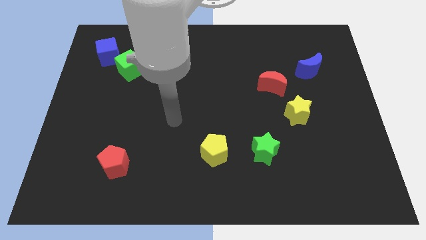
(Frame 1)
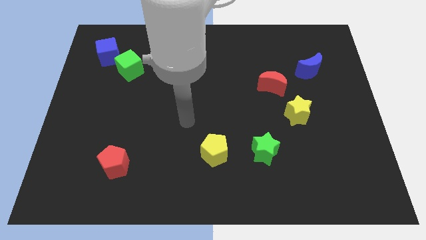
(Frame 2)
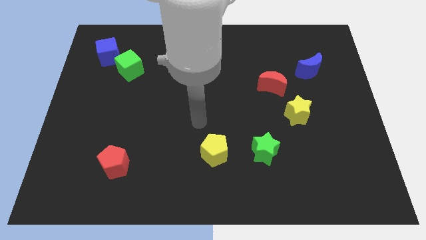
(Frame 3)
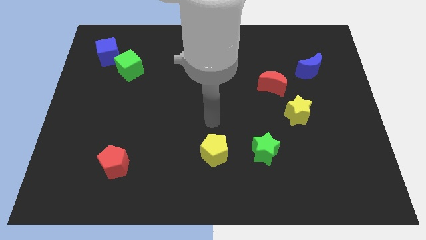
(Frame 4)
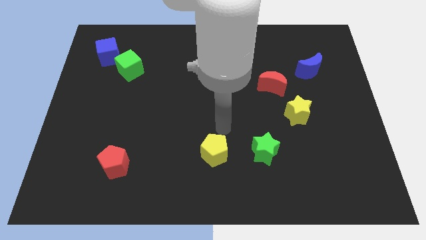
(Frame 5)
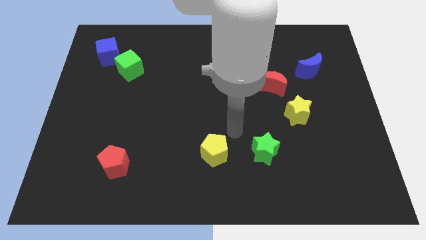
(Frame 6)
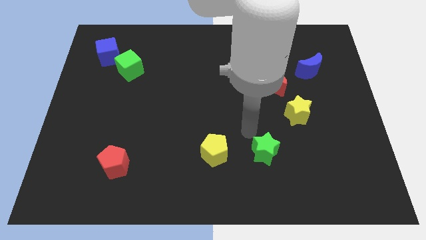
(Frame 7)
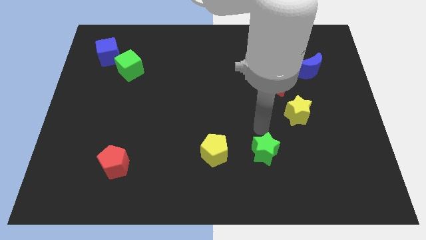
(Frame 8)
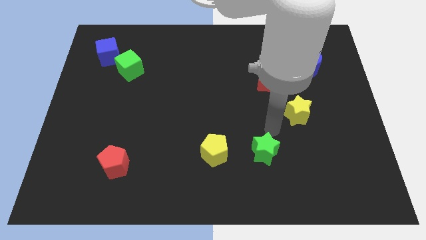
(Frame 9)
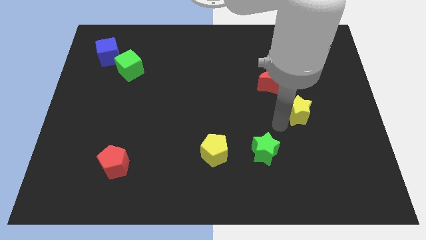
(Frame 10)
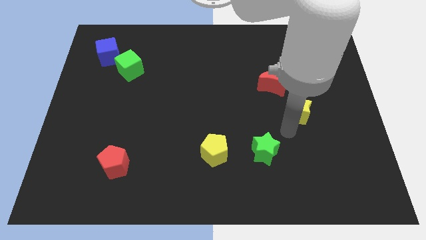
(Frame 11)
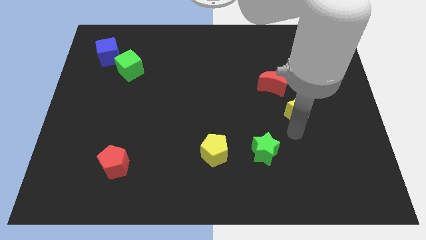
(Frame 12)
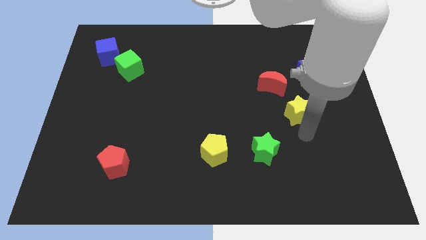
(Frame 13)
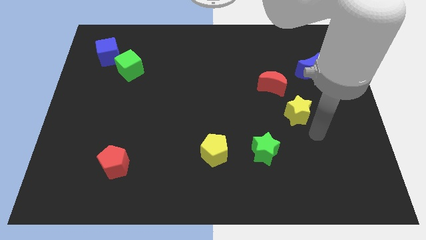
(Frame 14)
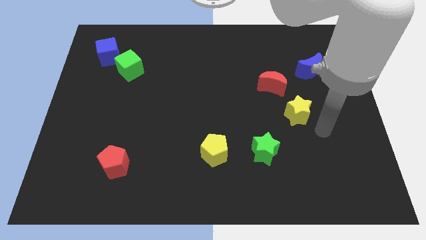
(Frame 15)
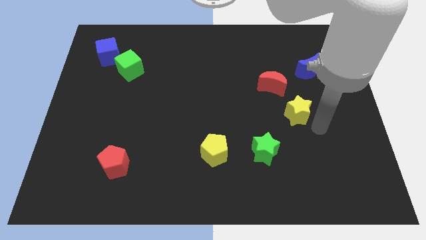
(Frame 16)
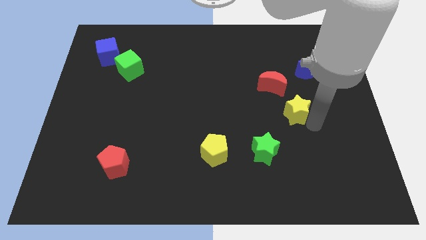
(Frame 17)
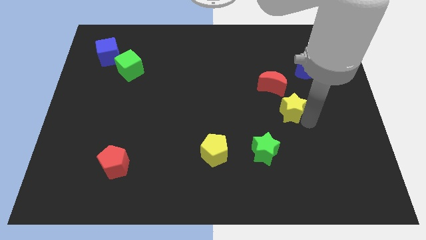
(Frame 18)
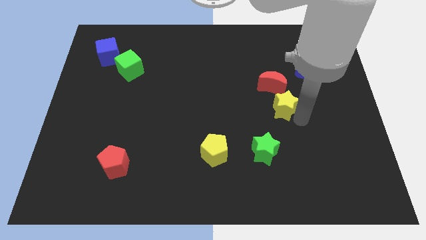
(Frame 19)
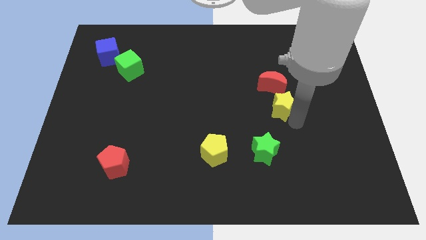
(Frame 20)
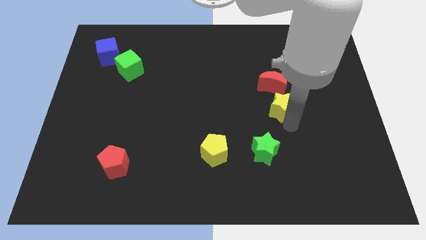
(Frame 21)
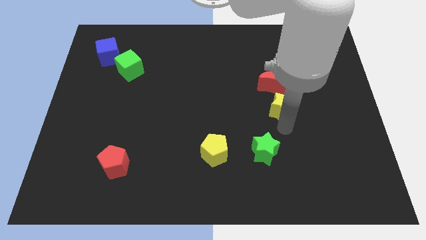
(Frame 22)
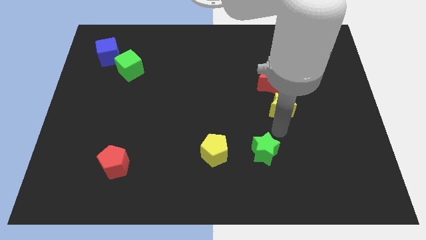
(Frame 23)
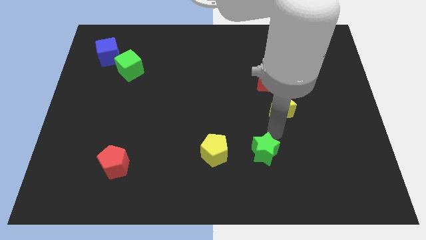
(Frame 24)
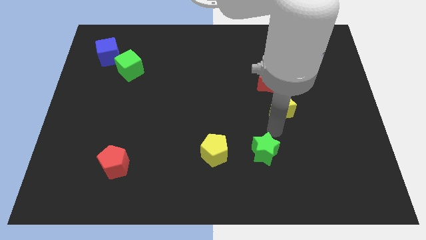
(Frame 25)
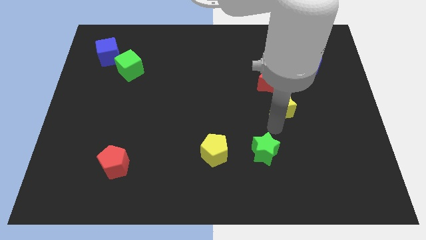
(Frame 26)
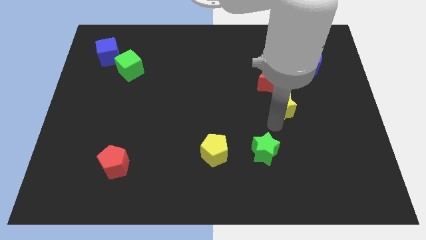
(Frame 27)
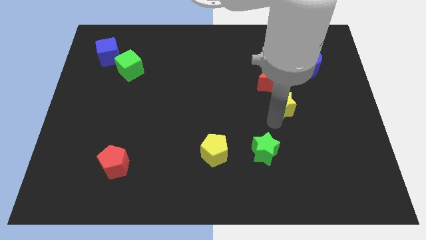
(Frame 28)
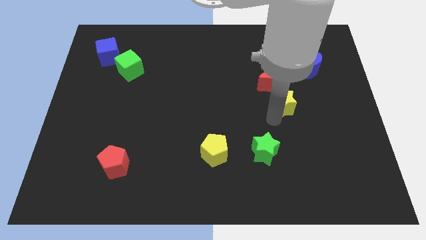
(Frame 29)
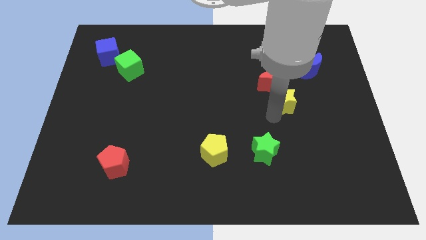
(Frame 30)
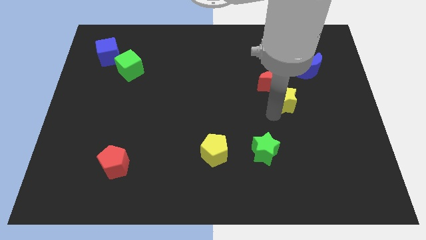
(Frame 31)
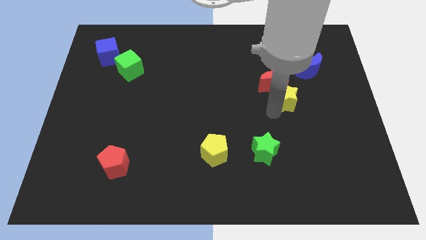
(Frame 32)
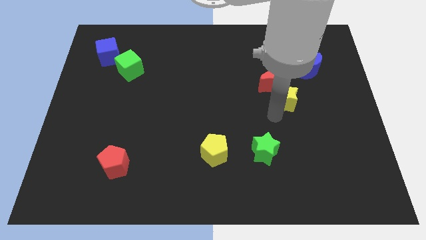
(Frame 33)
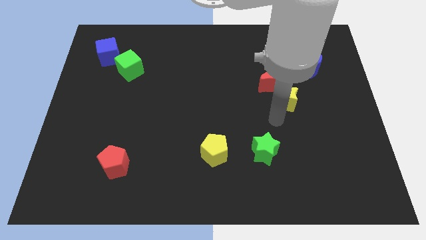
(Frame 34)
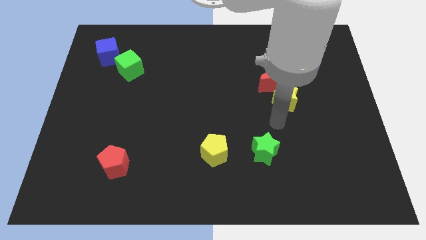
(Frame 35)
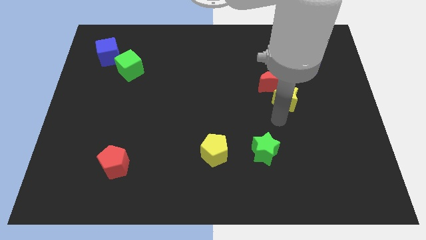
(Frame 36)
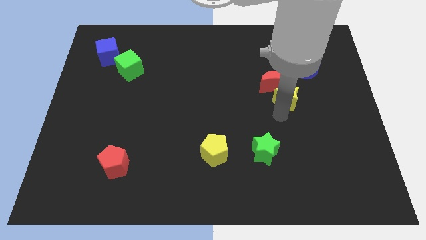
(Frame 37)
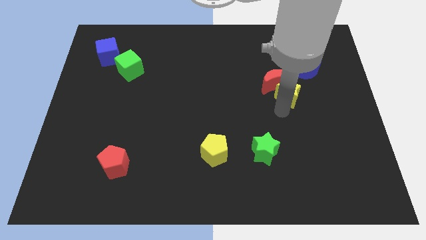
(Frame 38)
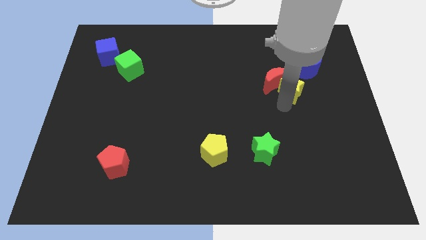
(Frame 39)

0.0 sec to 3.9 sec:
slightly slide the yellow star upwards

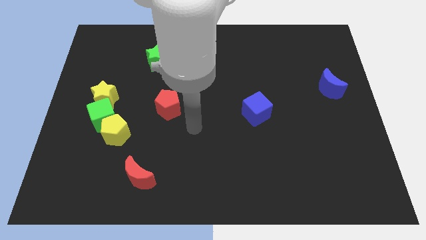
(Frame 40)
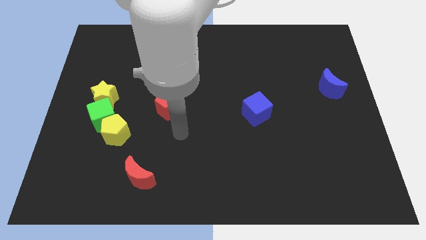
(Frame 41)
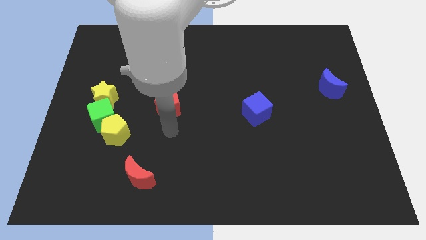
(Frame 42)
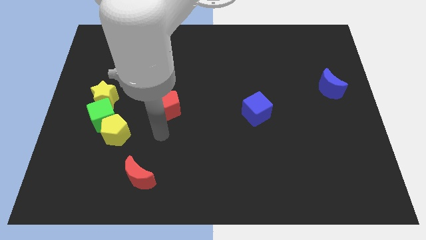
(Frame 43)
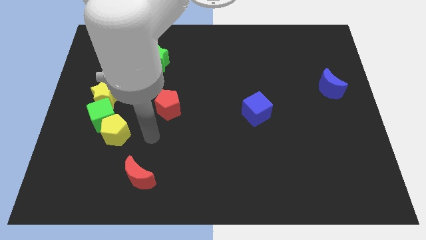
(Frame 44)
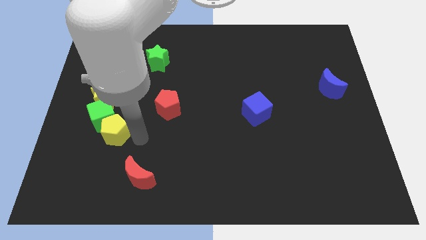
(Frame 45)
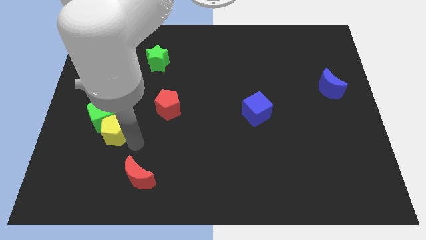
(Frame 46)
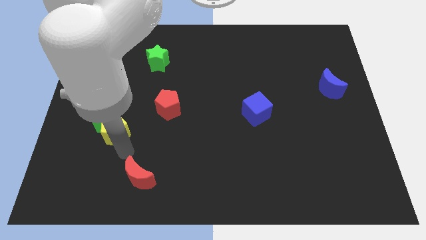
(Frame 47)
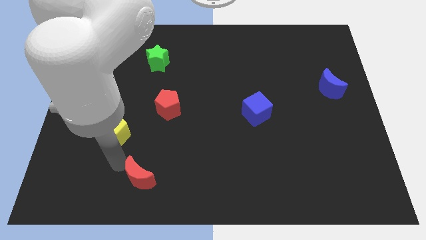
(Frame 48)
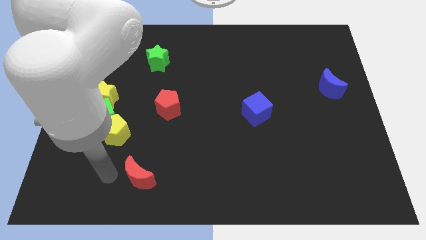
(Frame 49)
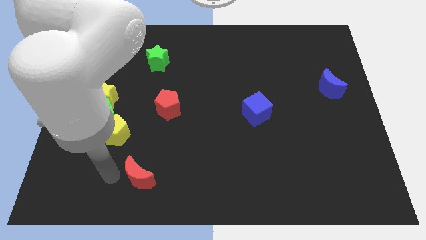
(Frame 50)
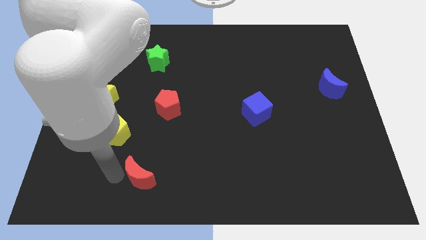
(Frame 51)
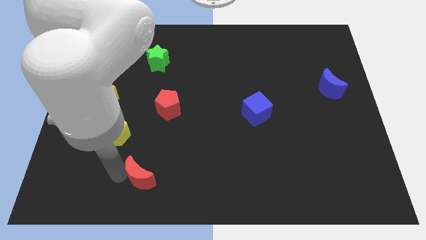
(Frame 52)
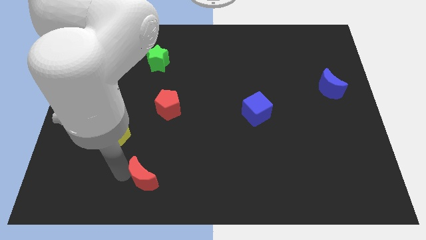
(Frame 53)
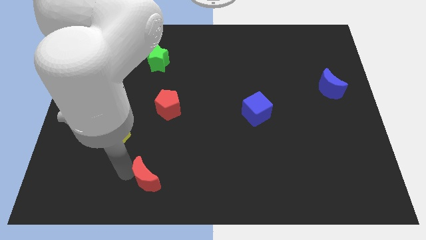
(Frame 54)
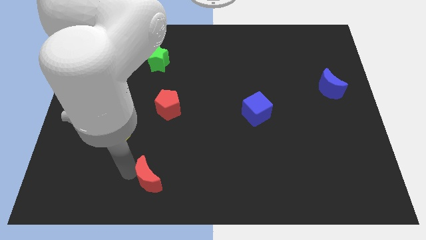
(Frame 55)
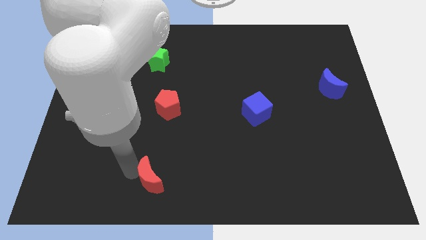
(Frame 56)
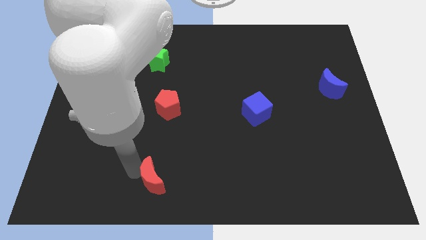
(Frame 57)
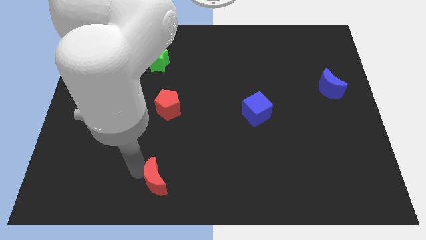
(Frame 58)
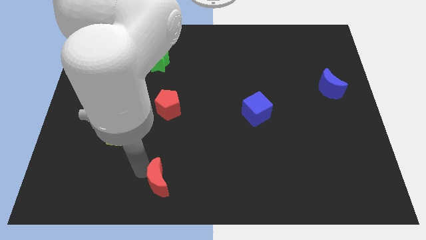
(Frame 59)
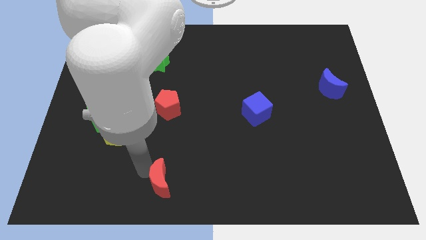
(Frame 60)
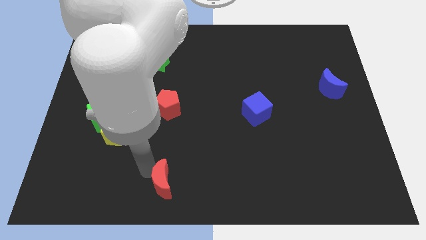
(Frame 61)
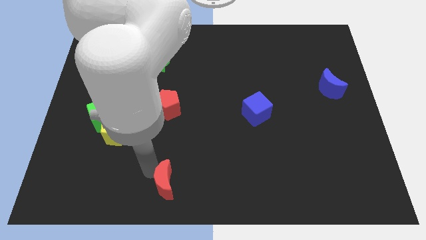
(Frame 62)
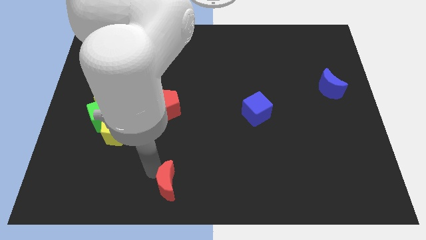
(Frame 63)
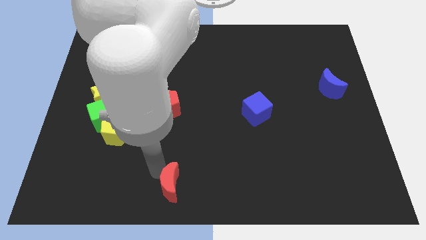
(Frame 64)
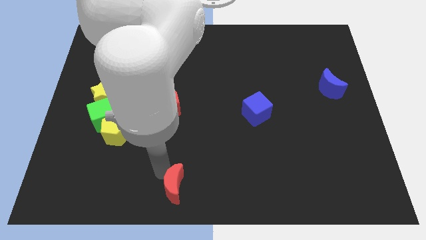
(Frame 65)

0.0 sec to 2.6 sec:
move the red moon to the right a bit

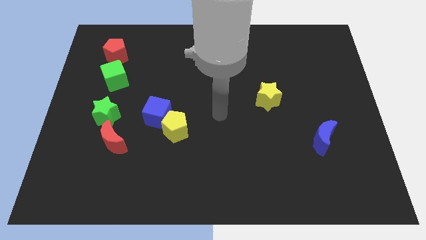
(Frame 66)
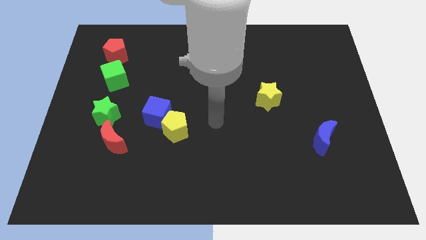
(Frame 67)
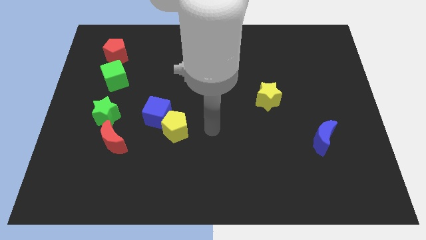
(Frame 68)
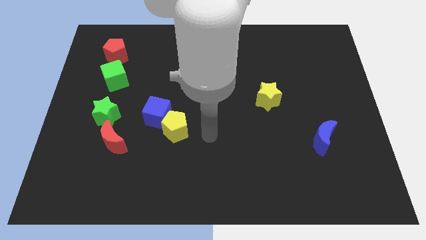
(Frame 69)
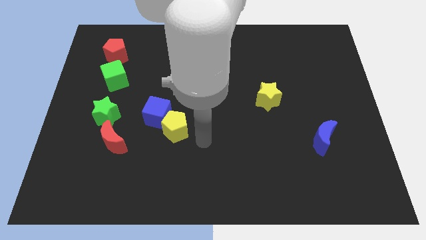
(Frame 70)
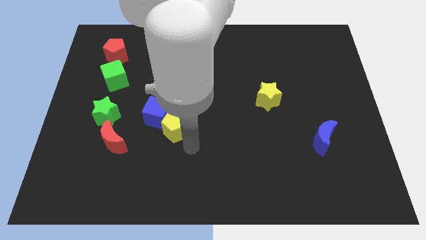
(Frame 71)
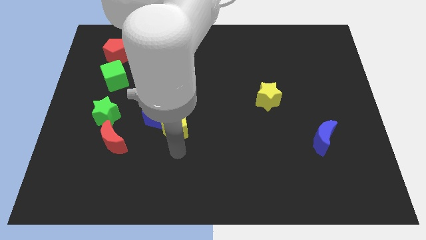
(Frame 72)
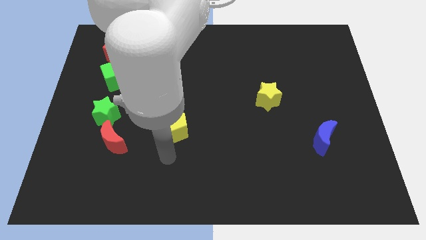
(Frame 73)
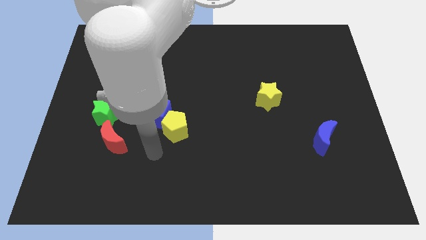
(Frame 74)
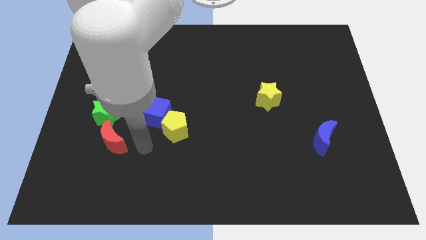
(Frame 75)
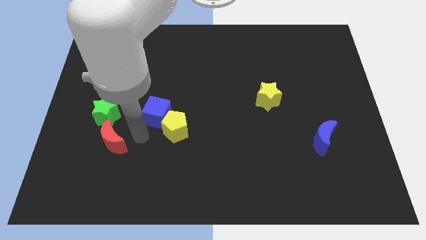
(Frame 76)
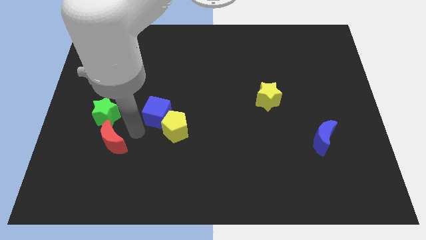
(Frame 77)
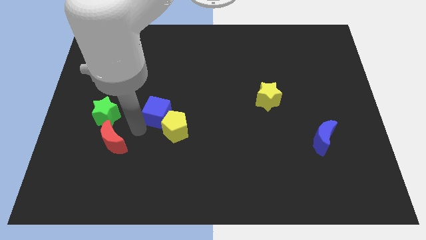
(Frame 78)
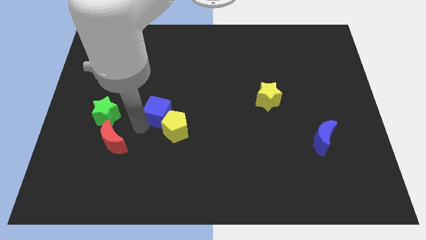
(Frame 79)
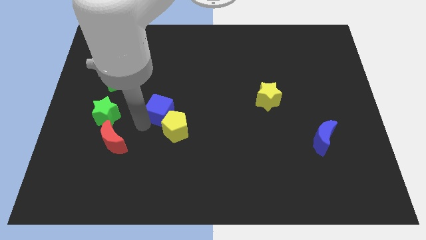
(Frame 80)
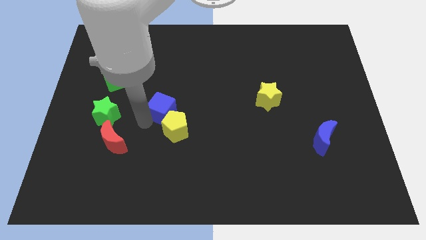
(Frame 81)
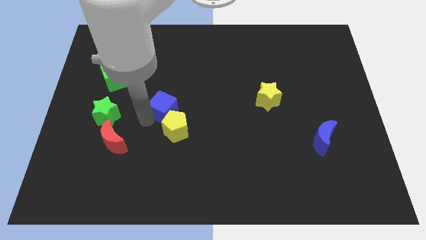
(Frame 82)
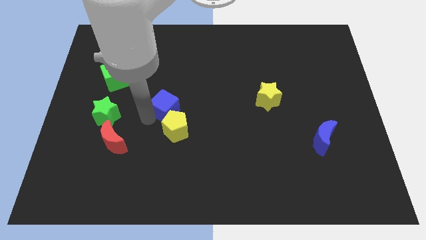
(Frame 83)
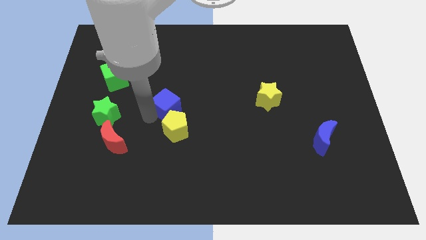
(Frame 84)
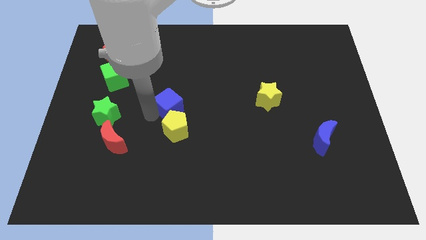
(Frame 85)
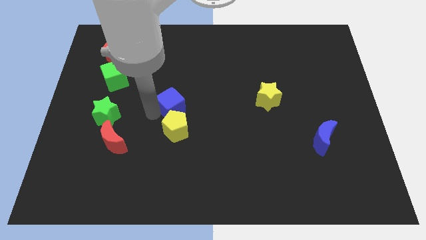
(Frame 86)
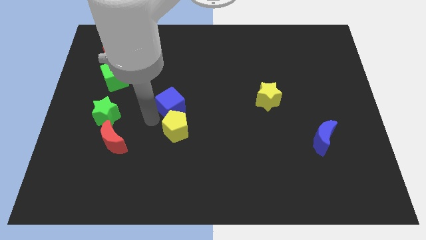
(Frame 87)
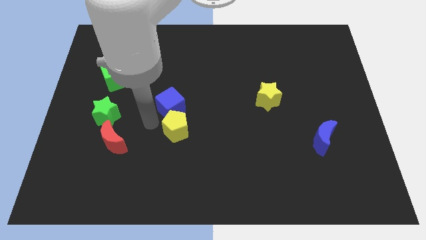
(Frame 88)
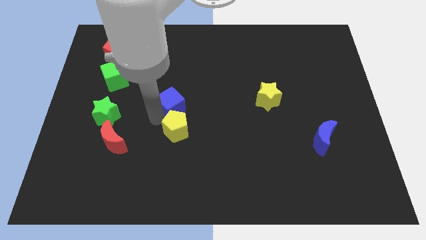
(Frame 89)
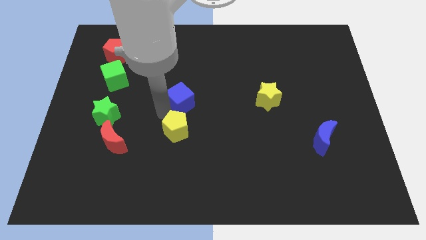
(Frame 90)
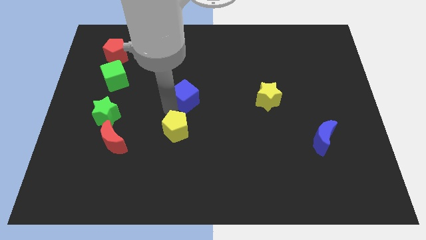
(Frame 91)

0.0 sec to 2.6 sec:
slightly move the blue cube diagonally up and to the right
